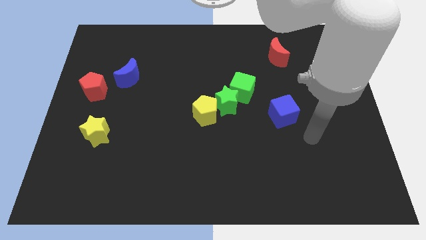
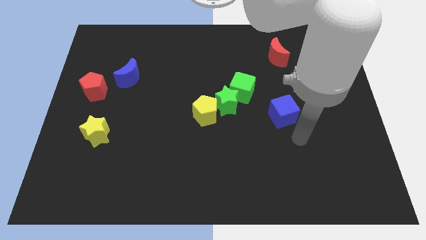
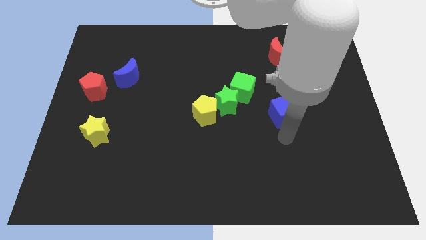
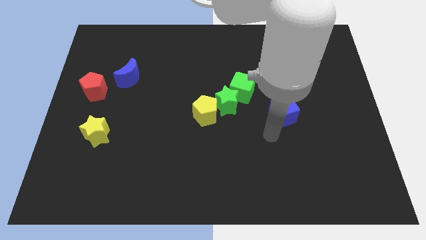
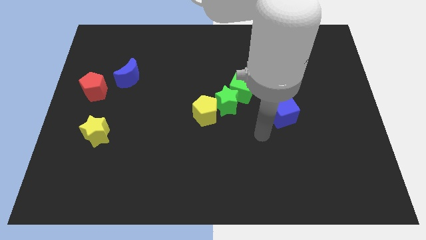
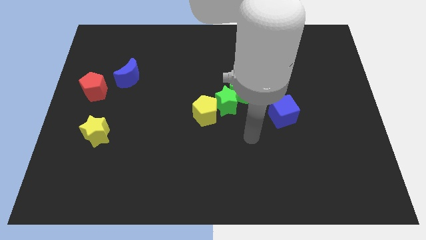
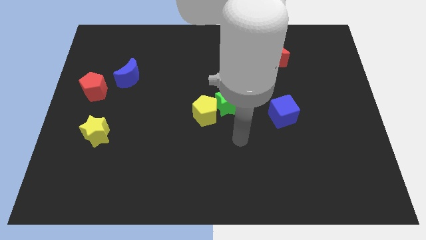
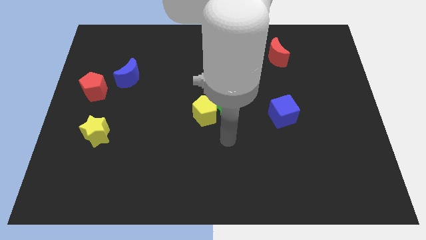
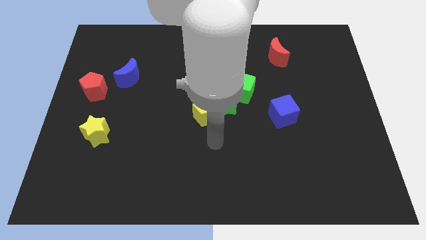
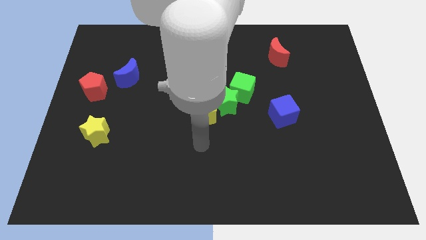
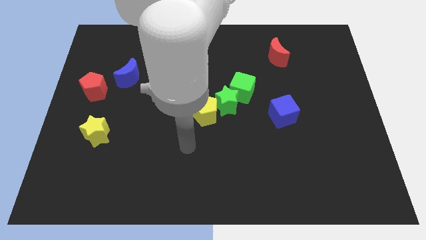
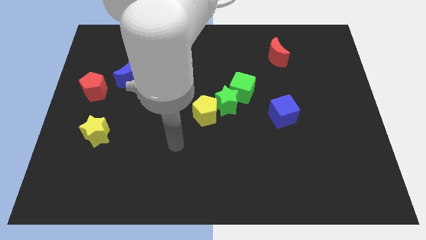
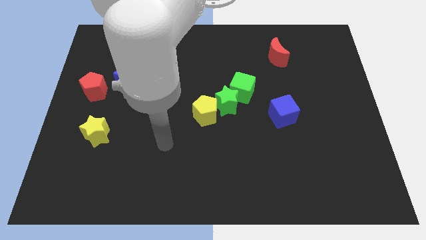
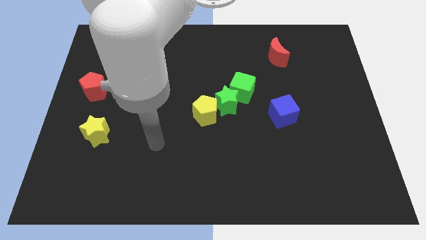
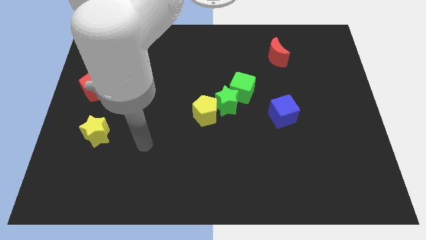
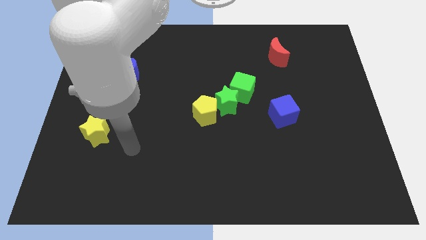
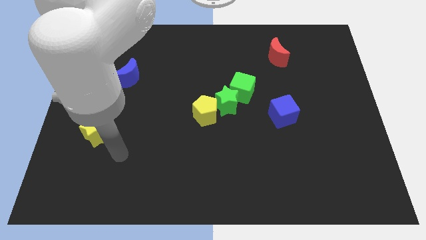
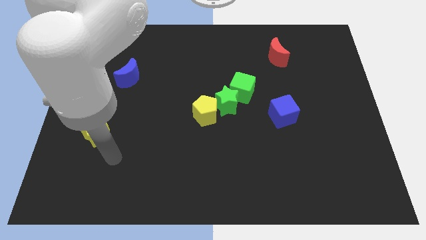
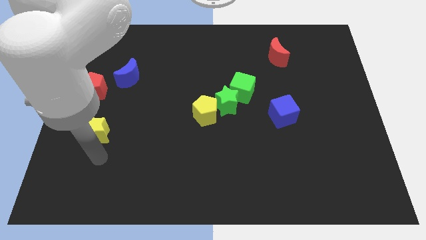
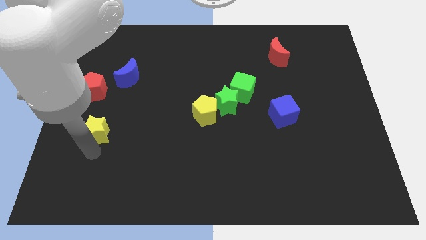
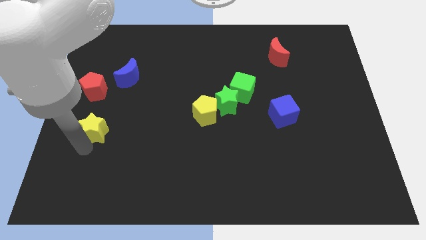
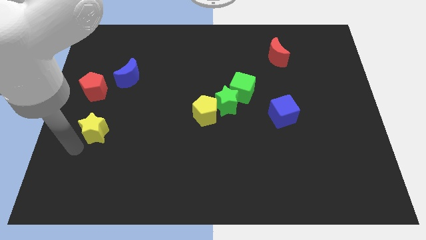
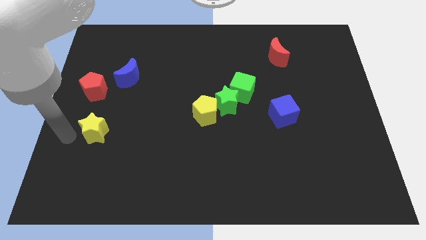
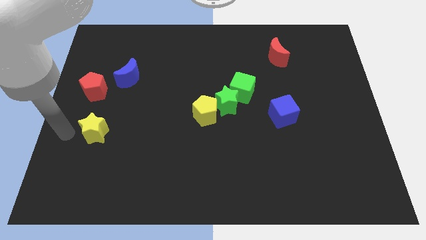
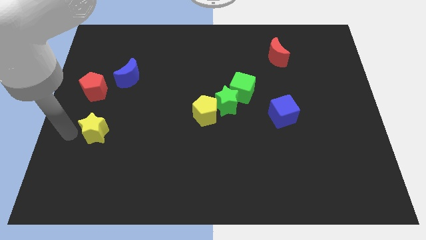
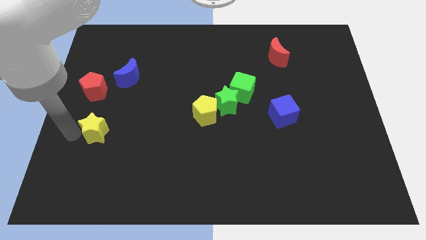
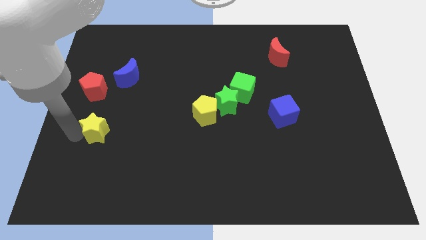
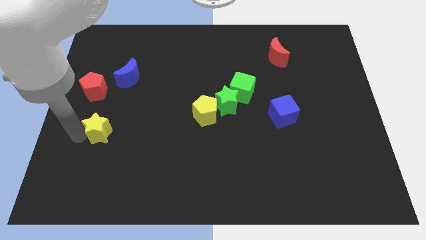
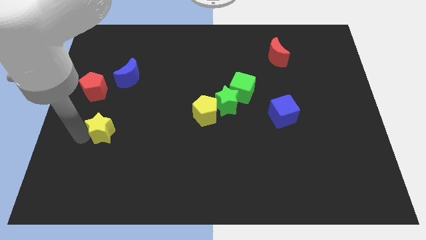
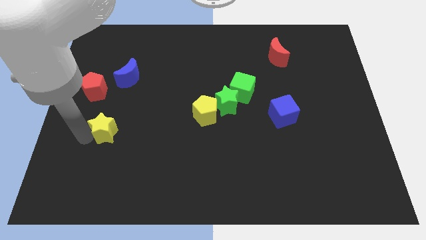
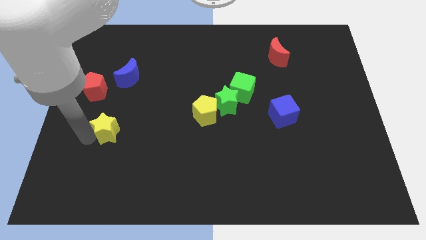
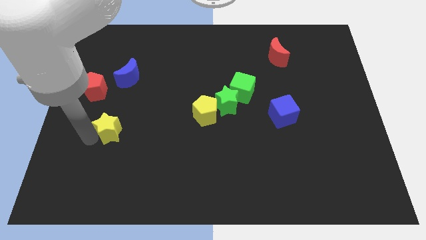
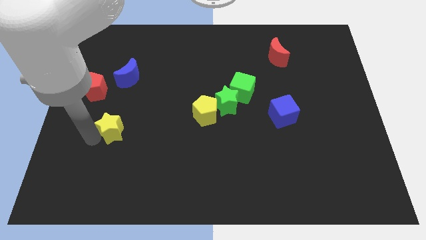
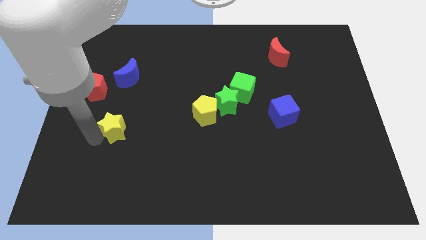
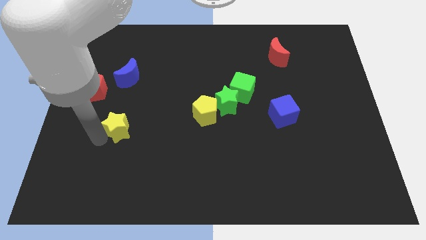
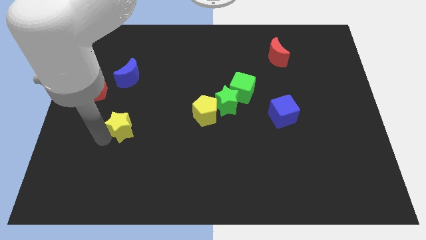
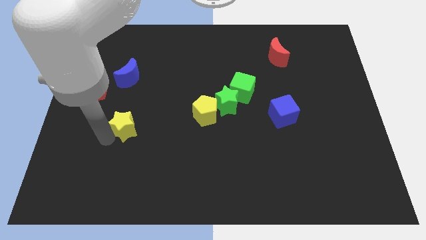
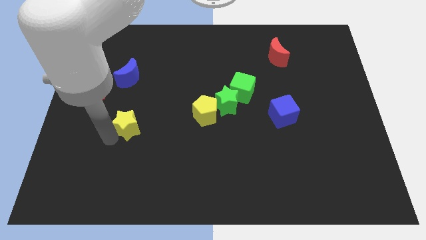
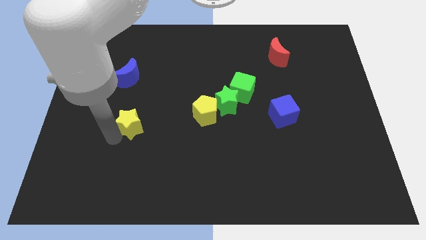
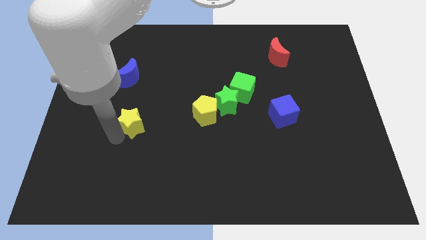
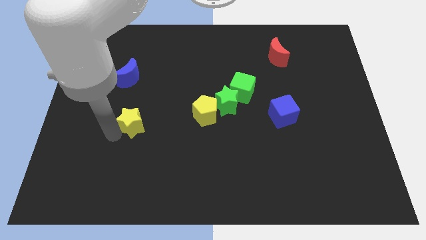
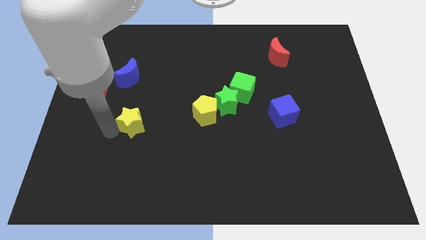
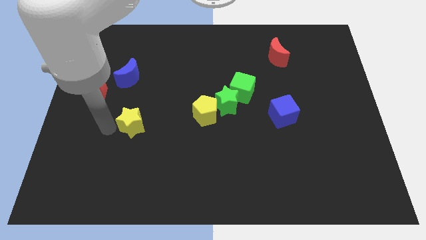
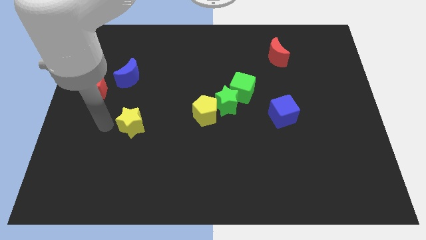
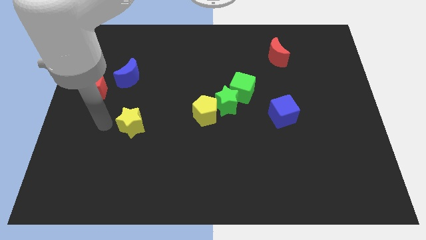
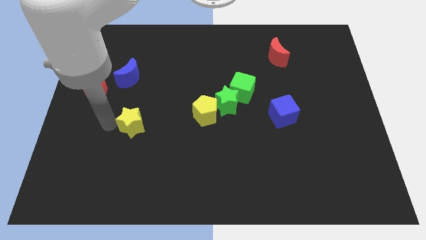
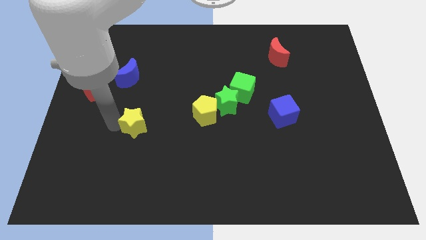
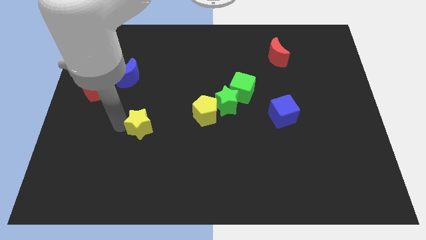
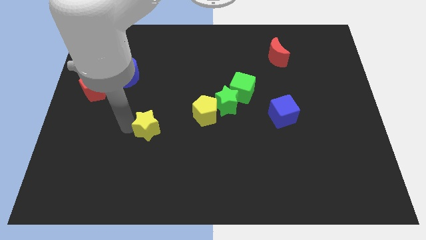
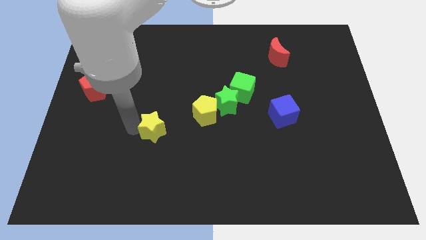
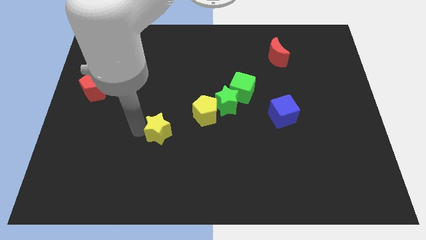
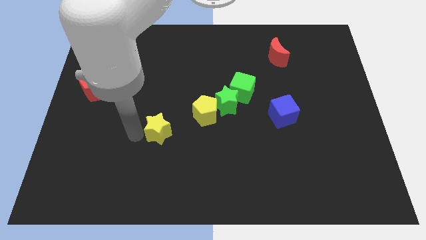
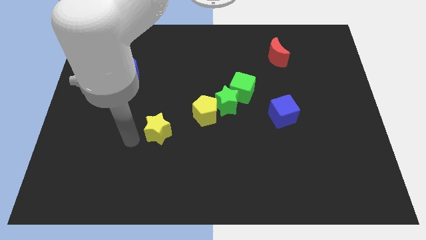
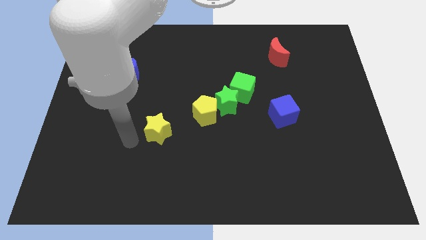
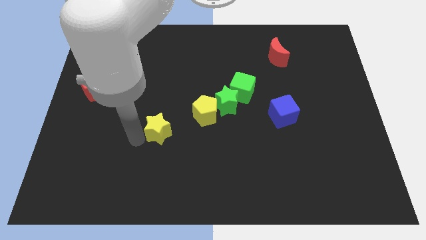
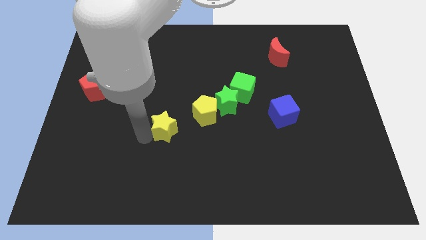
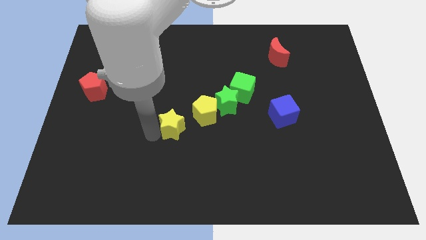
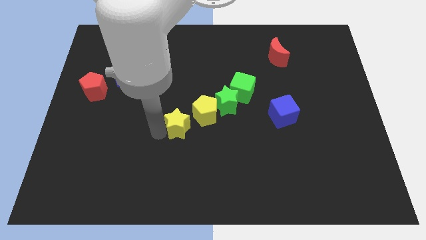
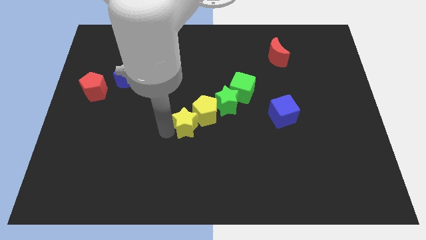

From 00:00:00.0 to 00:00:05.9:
slide the yellow star towards the yellow pentagon

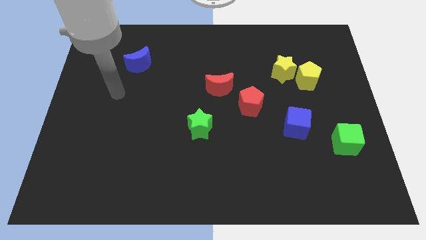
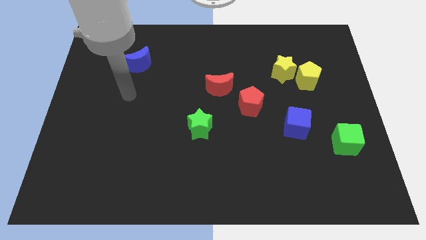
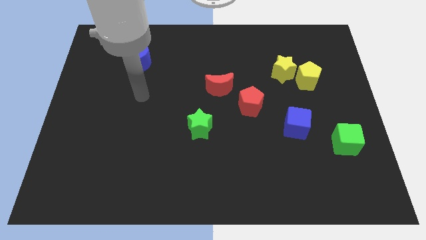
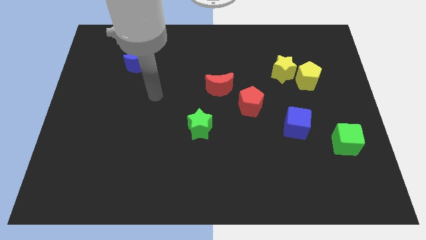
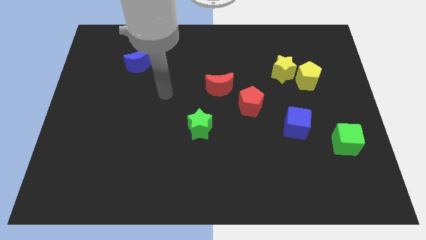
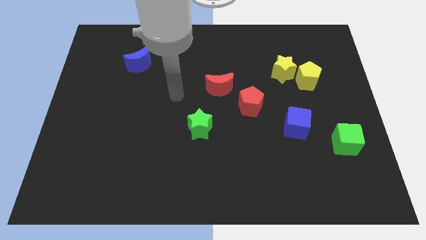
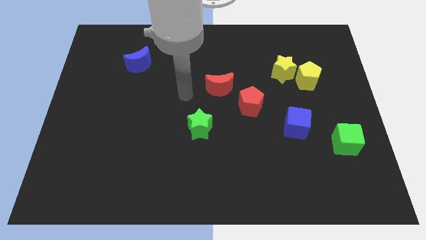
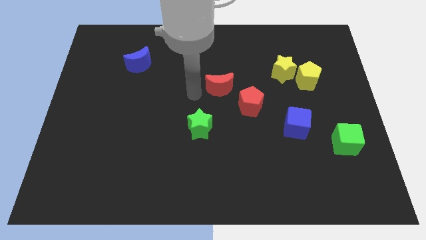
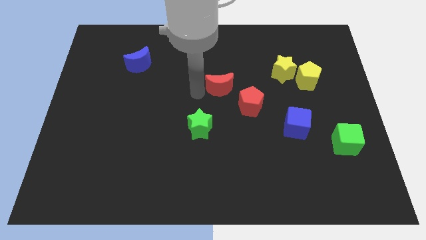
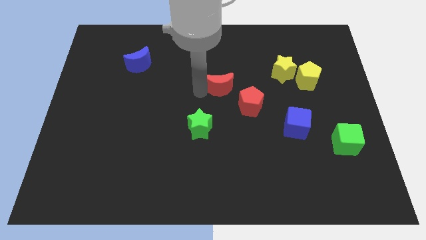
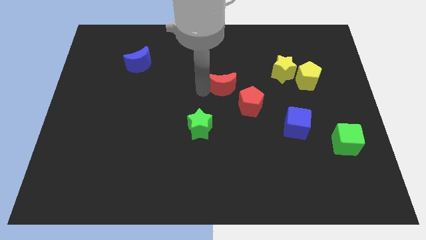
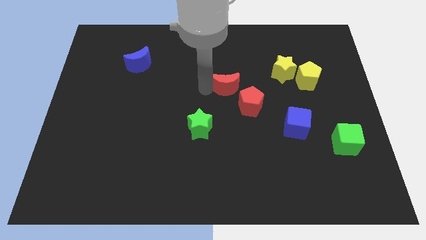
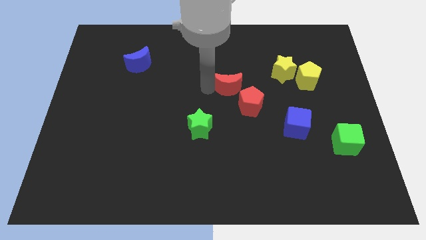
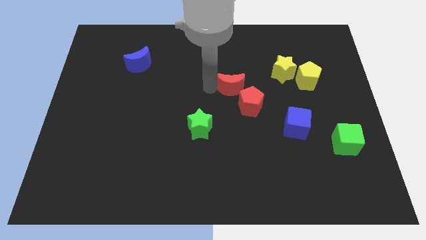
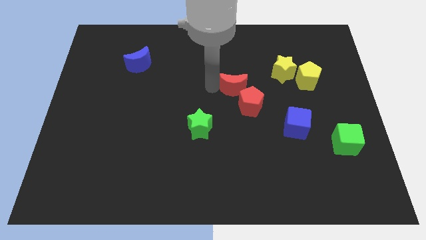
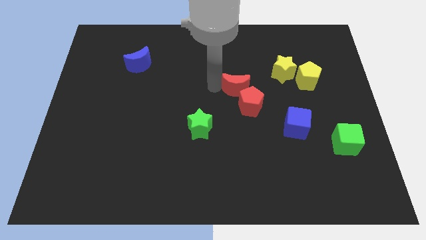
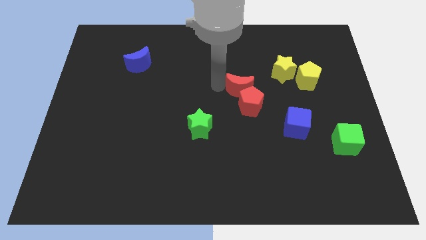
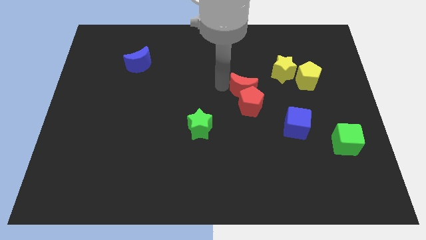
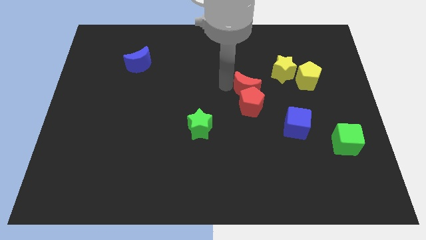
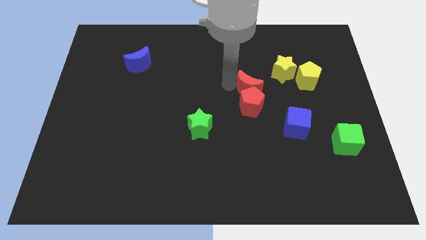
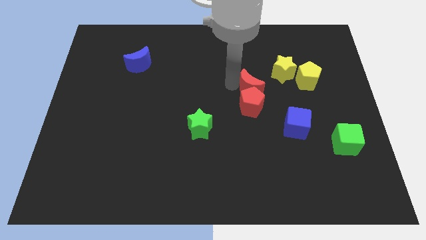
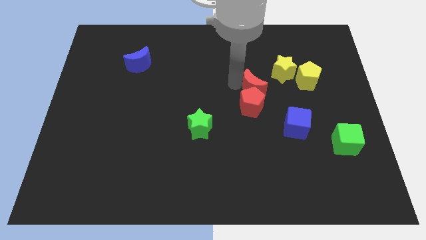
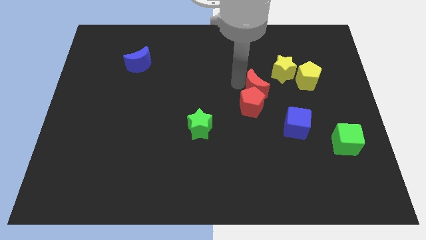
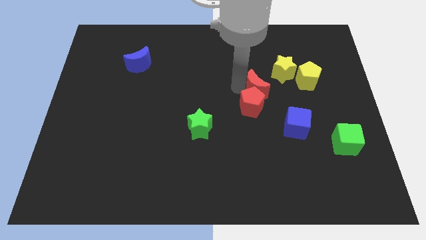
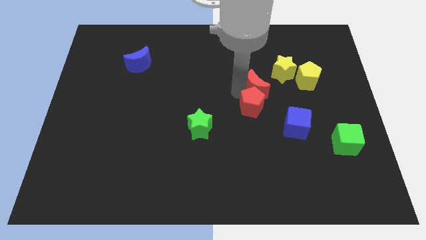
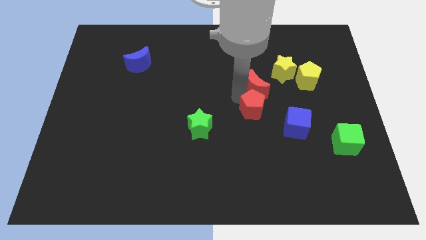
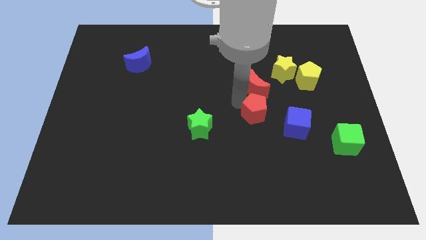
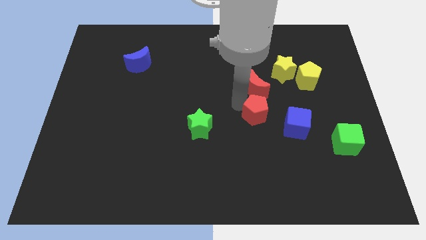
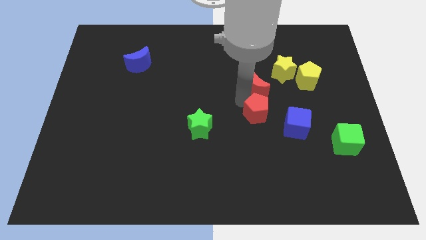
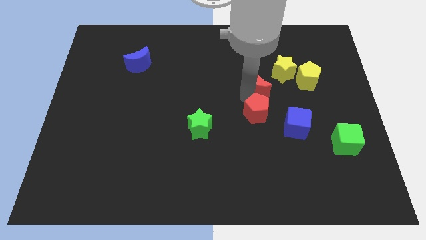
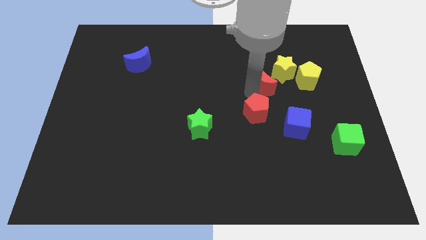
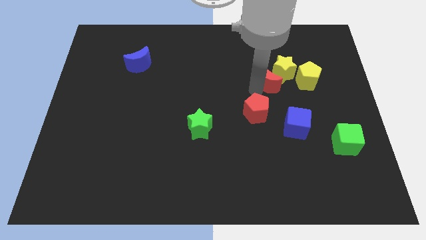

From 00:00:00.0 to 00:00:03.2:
move the red moon towards the yellow star
